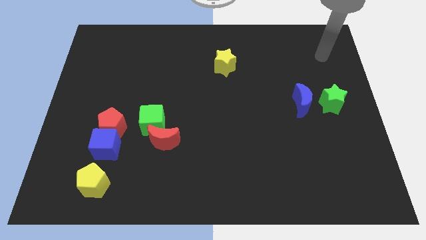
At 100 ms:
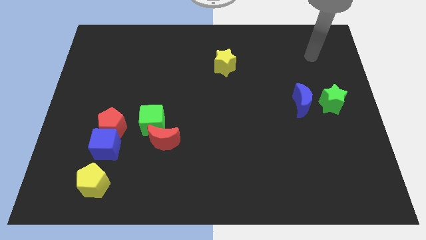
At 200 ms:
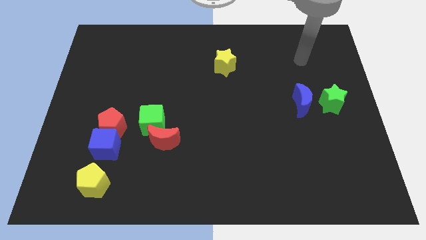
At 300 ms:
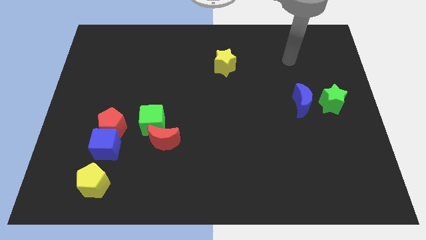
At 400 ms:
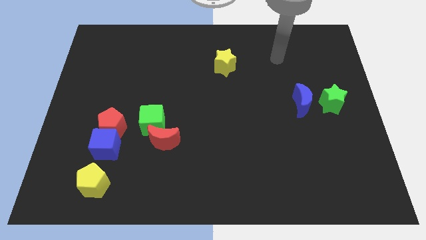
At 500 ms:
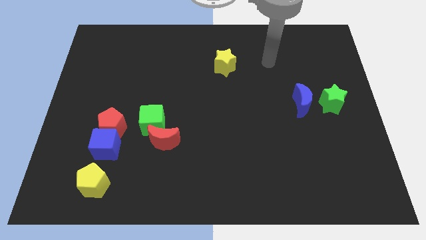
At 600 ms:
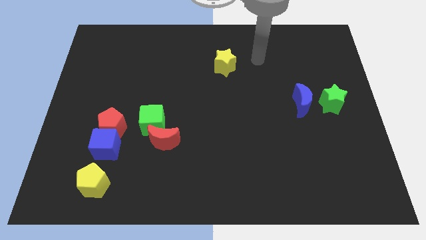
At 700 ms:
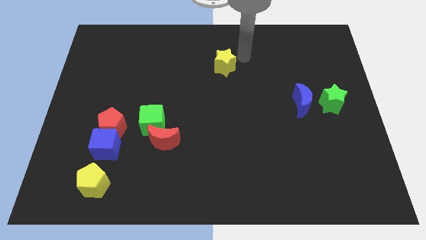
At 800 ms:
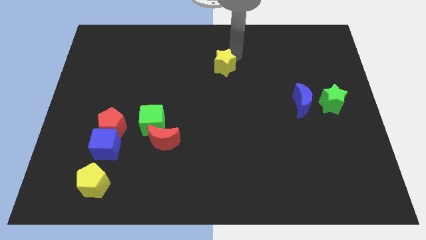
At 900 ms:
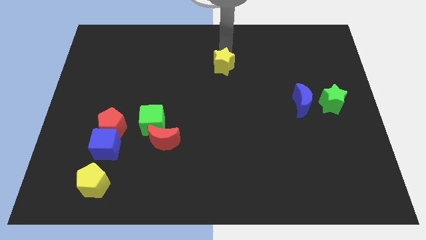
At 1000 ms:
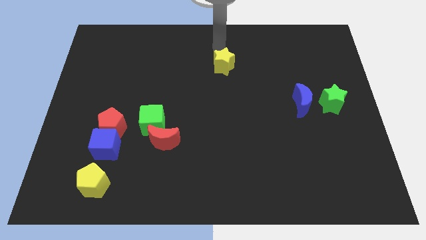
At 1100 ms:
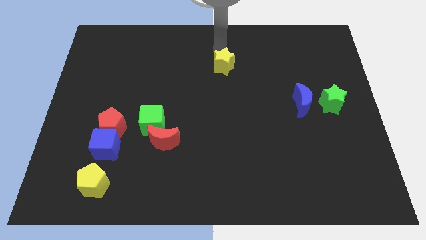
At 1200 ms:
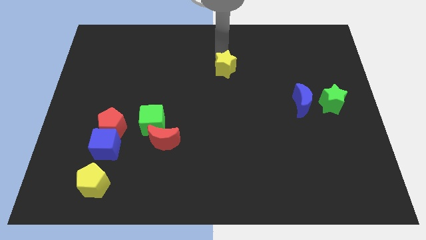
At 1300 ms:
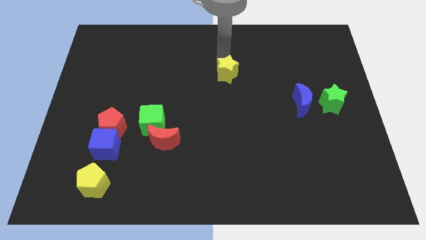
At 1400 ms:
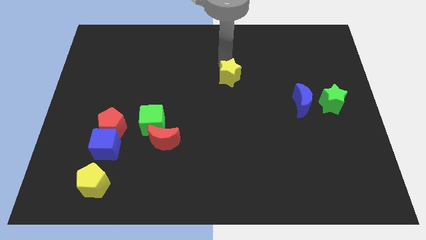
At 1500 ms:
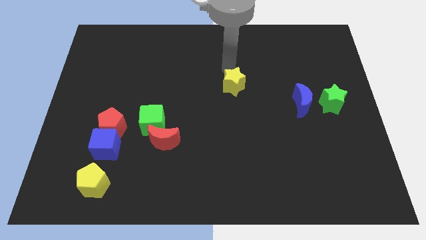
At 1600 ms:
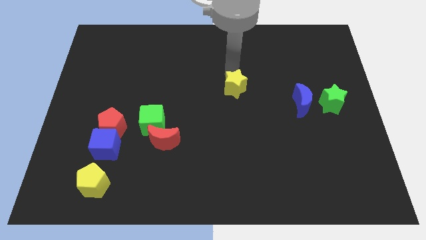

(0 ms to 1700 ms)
slightly slide the yellow star down

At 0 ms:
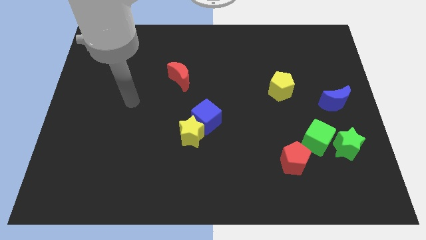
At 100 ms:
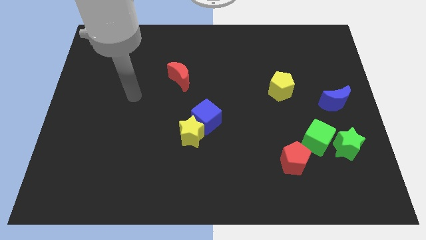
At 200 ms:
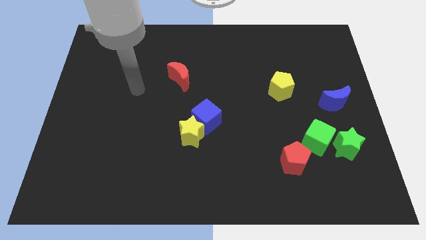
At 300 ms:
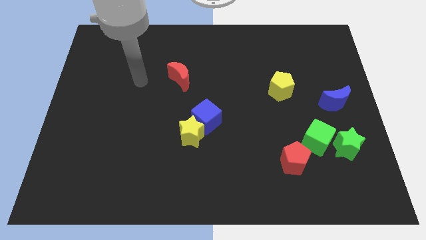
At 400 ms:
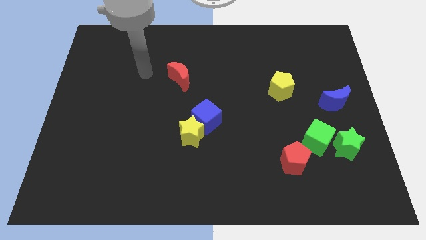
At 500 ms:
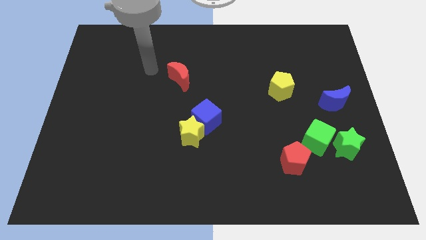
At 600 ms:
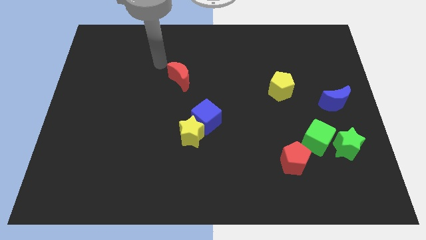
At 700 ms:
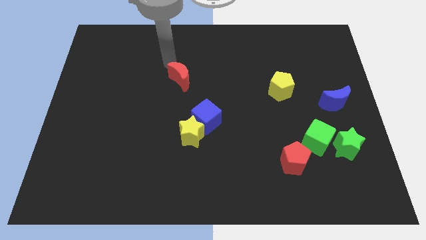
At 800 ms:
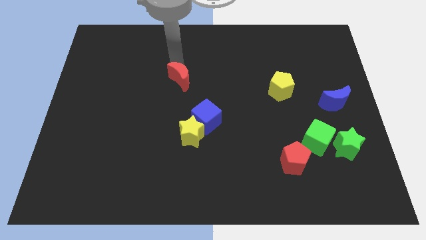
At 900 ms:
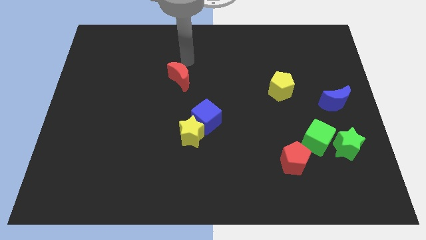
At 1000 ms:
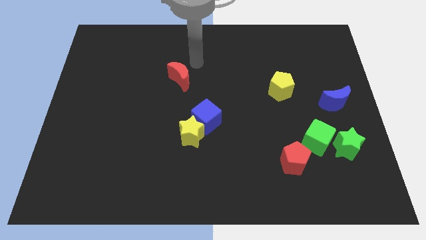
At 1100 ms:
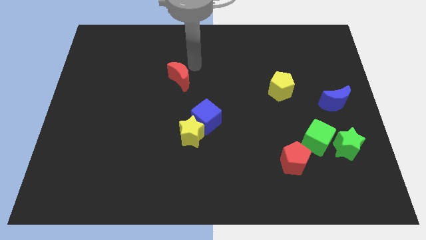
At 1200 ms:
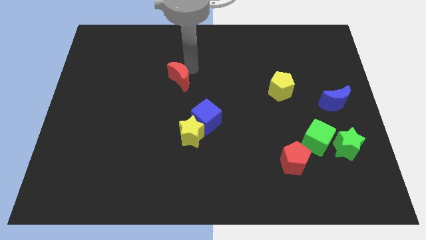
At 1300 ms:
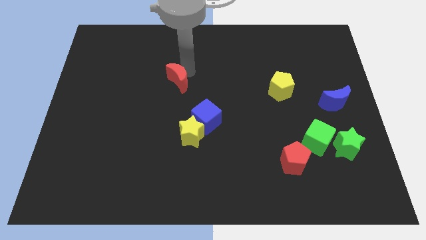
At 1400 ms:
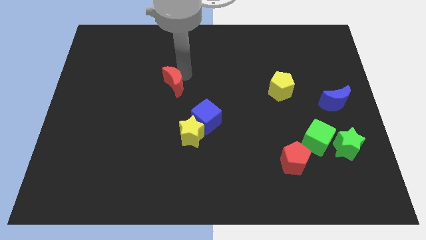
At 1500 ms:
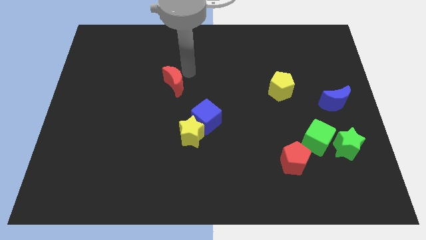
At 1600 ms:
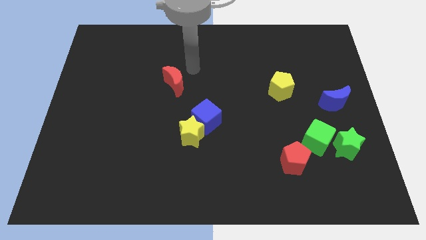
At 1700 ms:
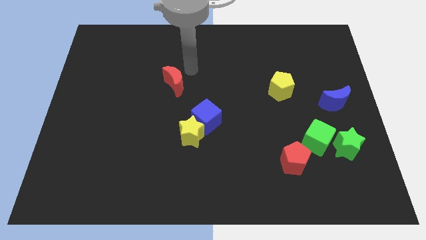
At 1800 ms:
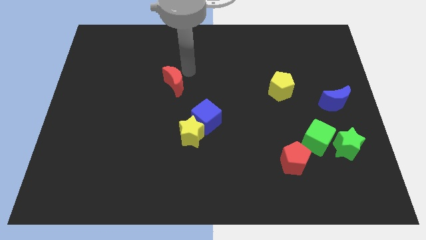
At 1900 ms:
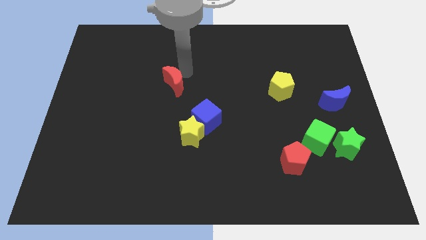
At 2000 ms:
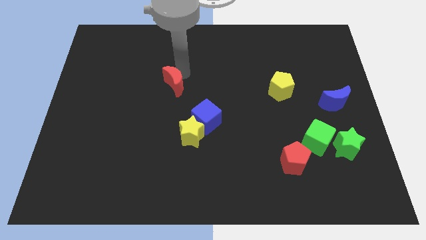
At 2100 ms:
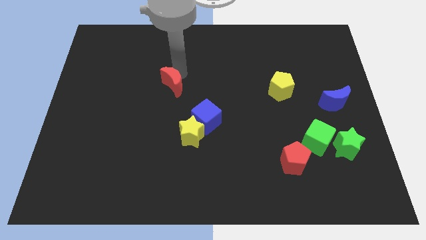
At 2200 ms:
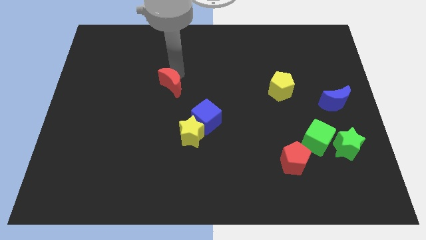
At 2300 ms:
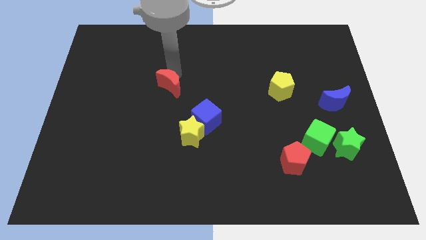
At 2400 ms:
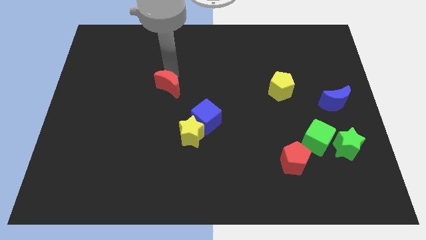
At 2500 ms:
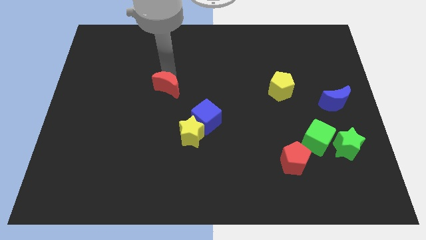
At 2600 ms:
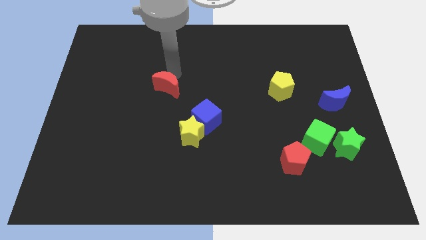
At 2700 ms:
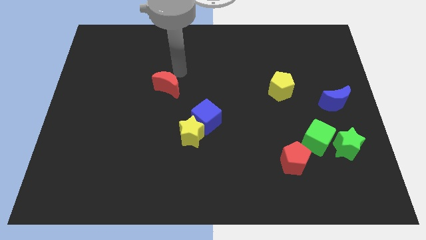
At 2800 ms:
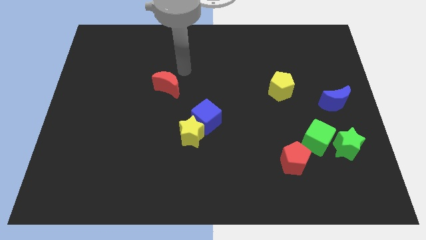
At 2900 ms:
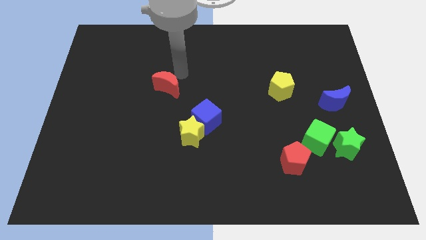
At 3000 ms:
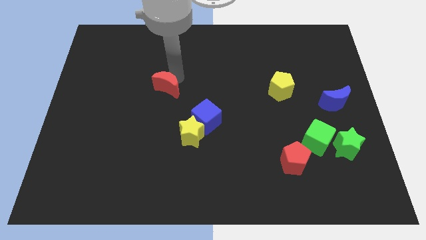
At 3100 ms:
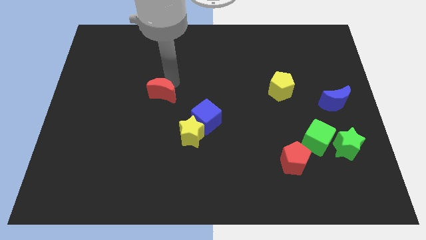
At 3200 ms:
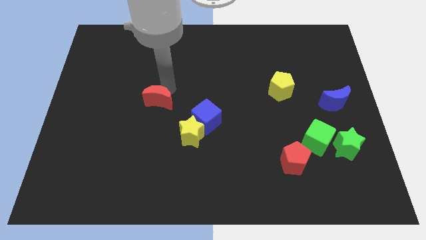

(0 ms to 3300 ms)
push the red moon a little downwards and then to the left

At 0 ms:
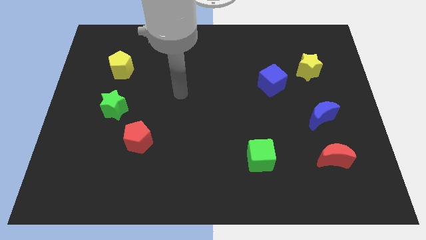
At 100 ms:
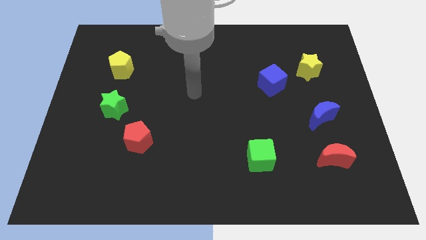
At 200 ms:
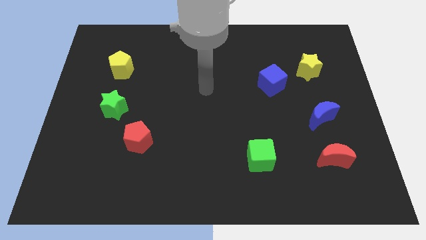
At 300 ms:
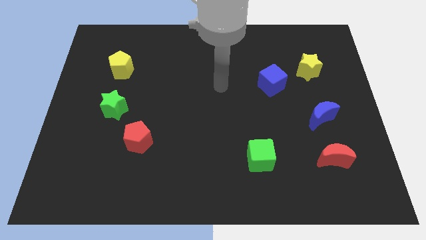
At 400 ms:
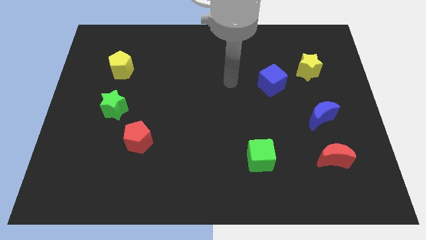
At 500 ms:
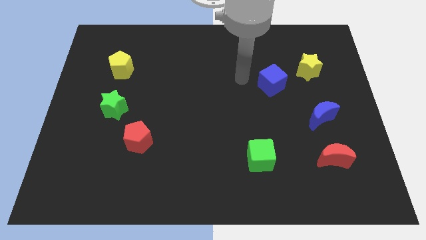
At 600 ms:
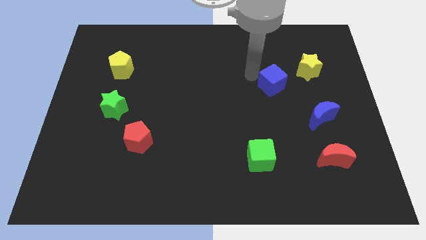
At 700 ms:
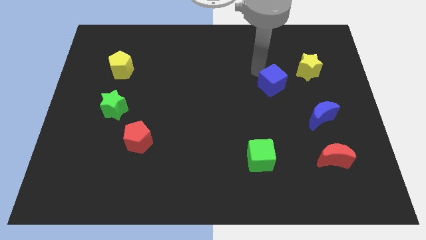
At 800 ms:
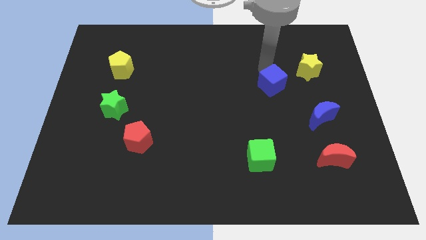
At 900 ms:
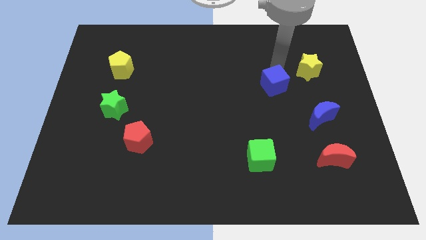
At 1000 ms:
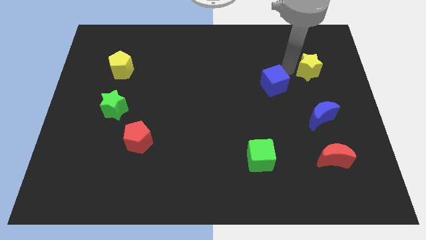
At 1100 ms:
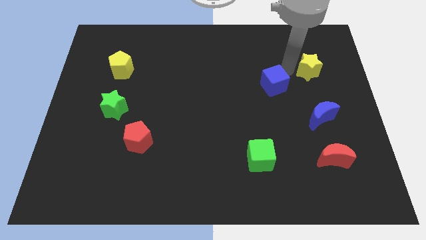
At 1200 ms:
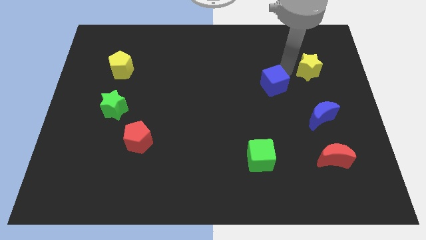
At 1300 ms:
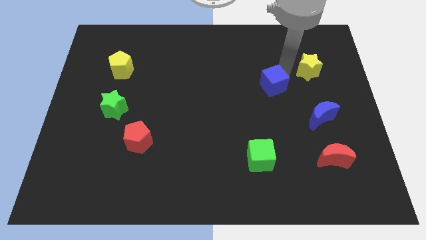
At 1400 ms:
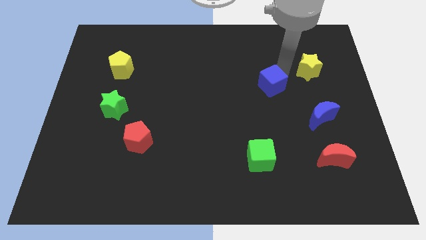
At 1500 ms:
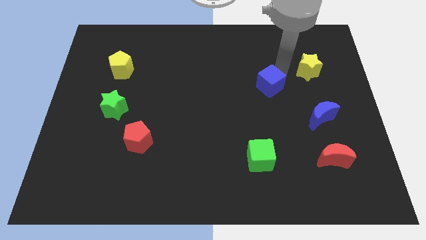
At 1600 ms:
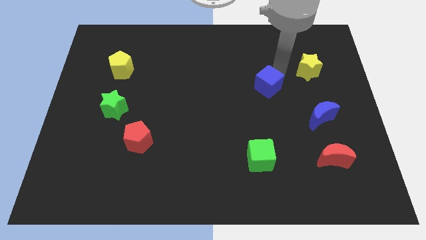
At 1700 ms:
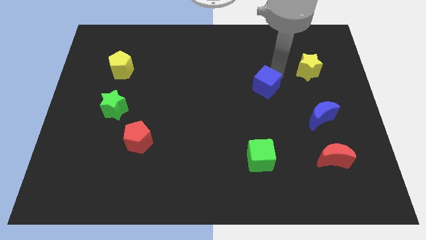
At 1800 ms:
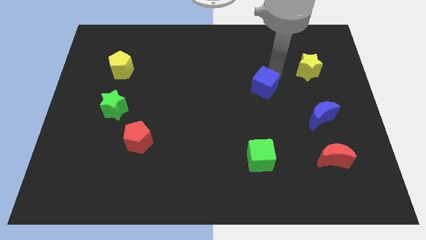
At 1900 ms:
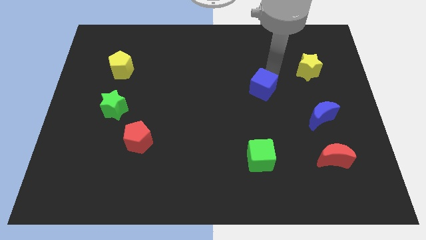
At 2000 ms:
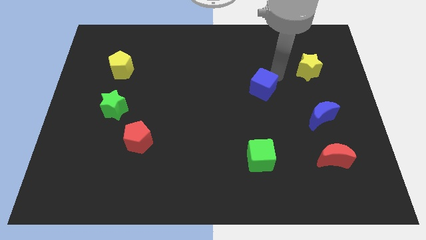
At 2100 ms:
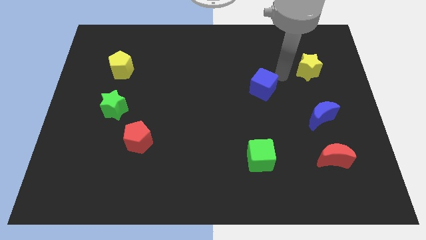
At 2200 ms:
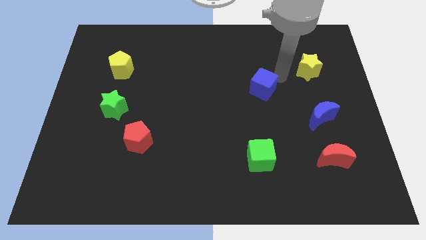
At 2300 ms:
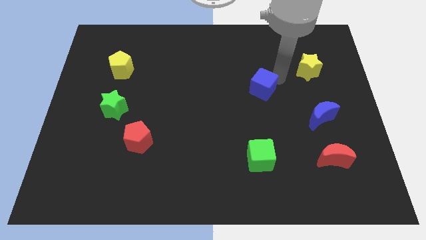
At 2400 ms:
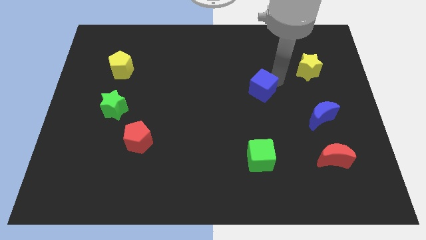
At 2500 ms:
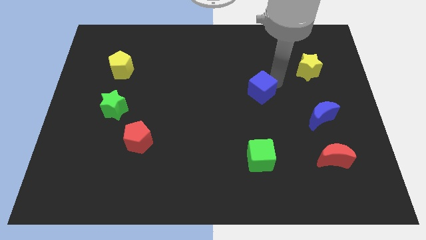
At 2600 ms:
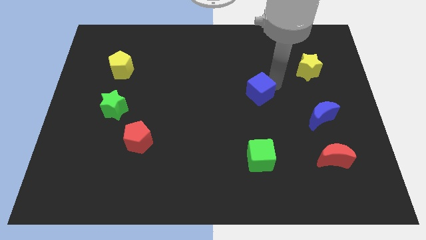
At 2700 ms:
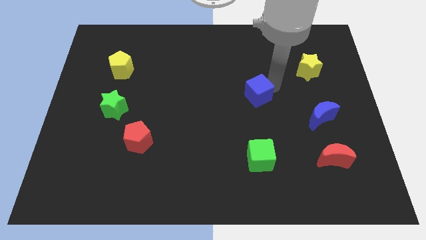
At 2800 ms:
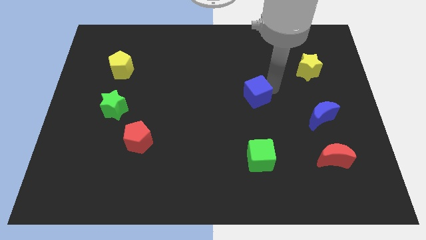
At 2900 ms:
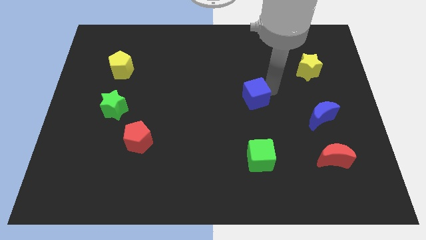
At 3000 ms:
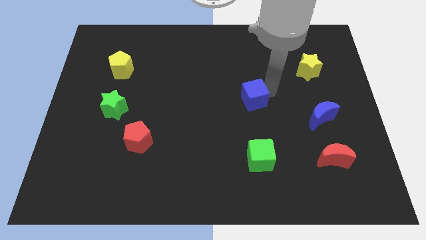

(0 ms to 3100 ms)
push the blue cube down and then to the left somewhat

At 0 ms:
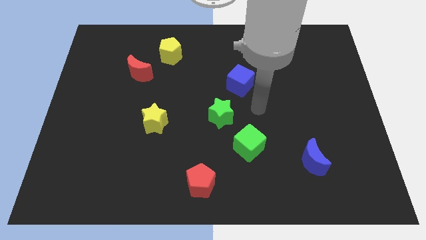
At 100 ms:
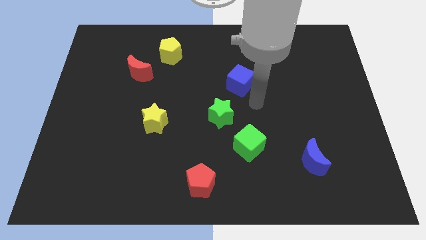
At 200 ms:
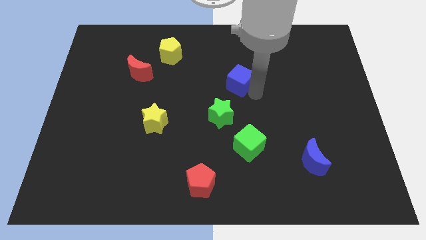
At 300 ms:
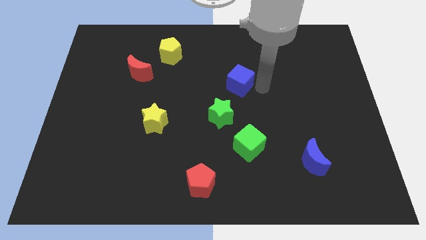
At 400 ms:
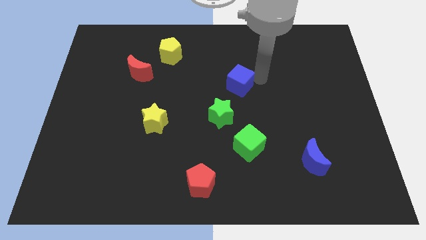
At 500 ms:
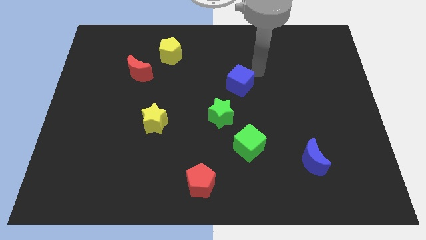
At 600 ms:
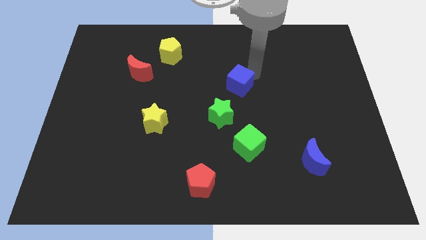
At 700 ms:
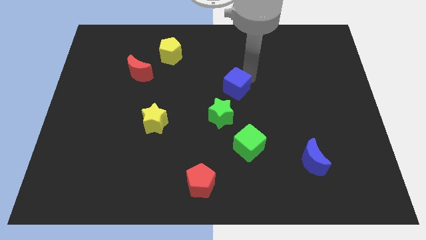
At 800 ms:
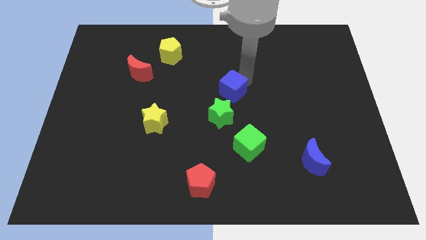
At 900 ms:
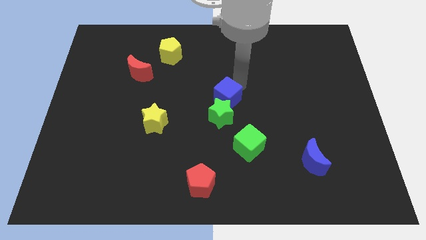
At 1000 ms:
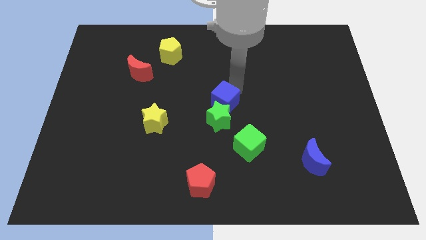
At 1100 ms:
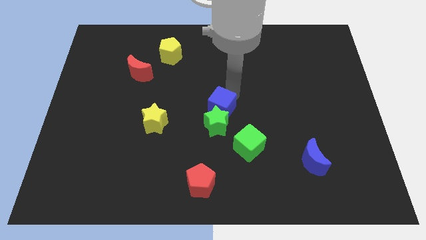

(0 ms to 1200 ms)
push the blue cube downwards and left diagonally a little
